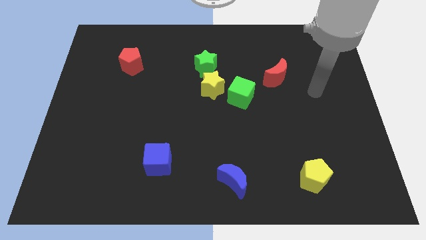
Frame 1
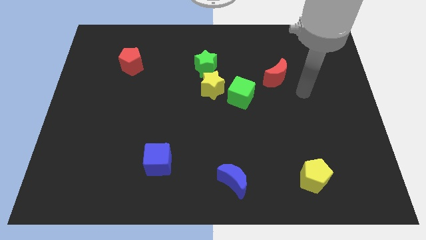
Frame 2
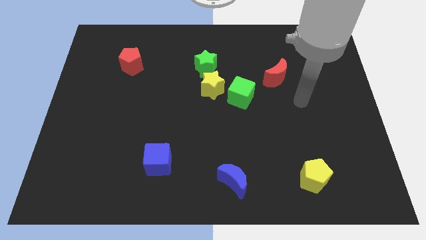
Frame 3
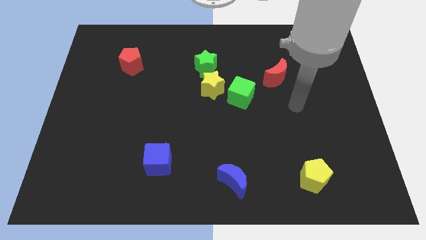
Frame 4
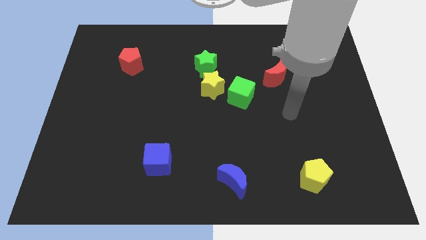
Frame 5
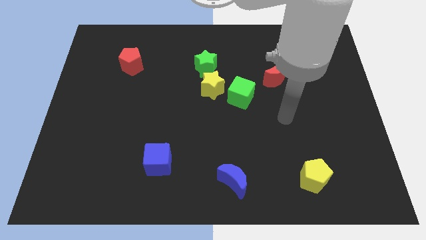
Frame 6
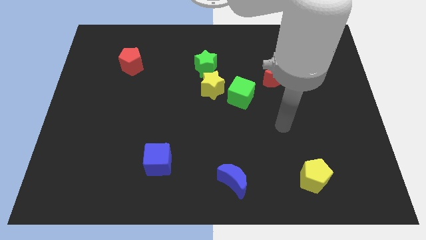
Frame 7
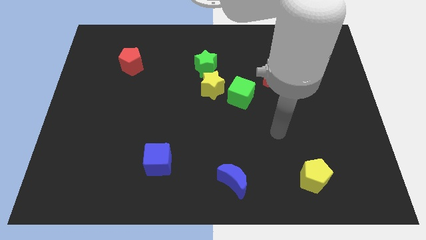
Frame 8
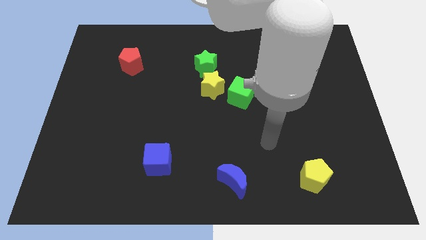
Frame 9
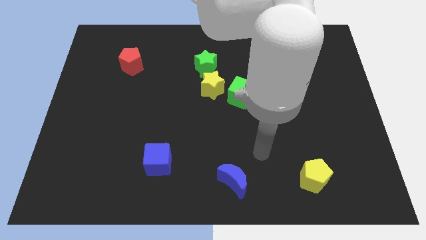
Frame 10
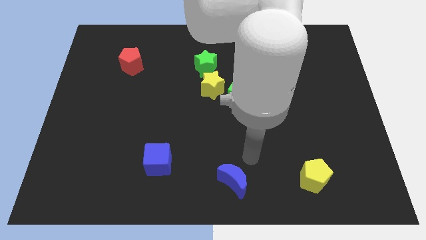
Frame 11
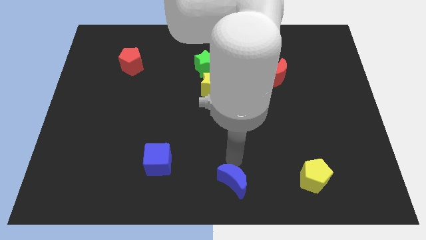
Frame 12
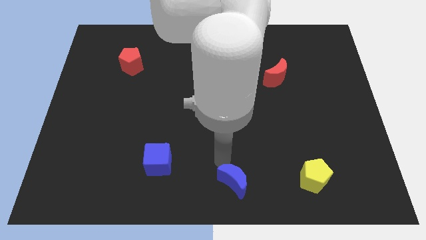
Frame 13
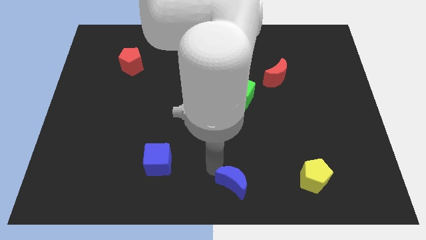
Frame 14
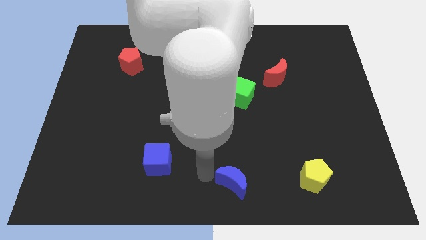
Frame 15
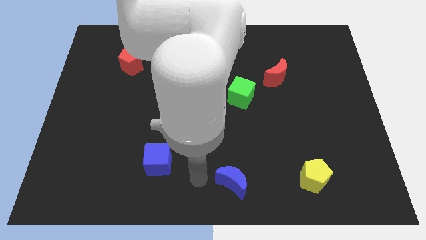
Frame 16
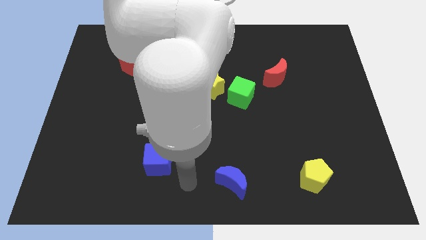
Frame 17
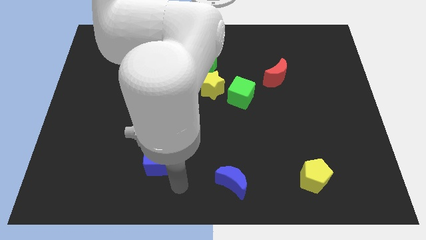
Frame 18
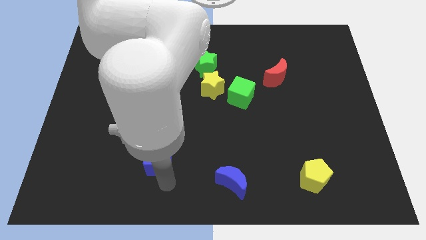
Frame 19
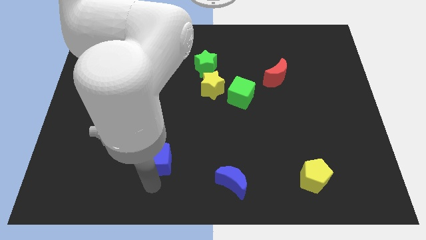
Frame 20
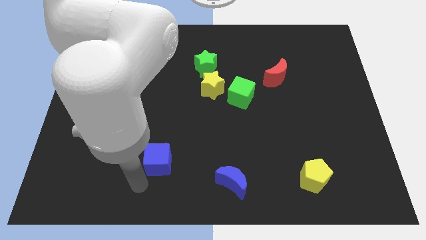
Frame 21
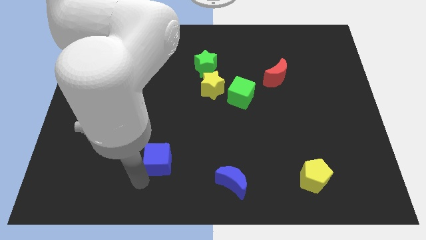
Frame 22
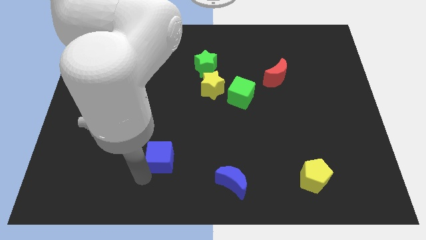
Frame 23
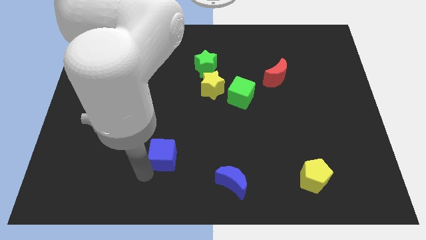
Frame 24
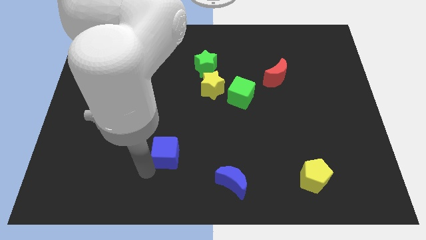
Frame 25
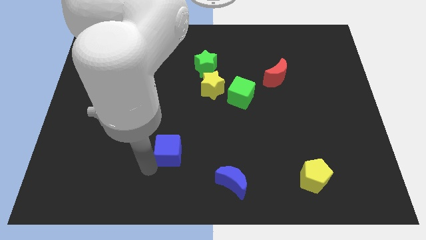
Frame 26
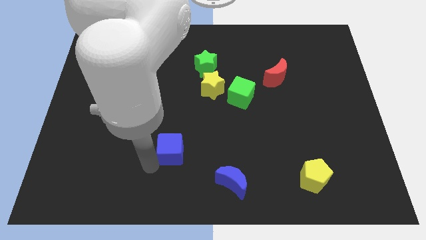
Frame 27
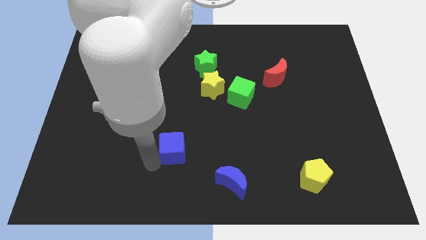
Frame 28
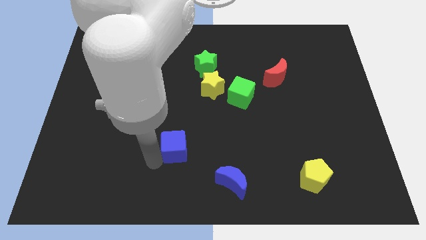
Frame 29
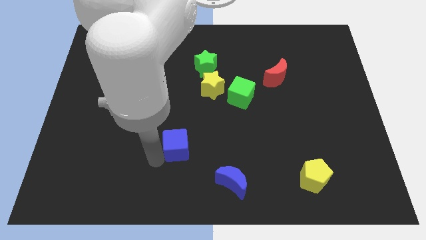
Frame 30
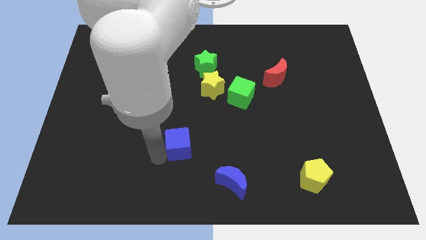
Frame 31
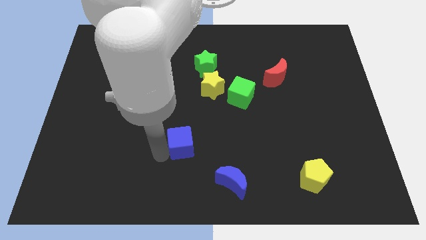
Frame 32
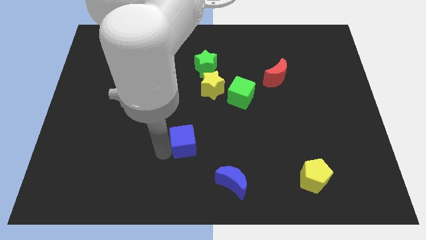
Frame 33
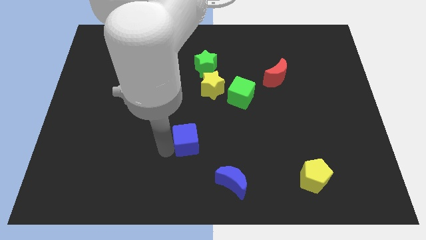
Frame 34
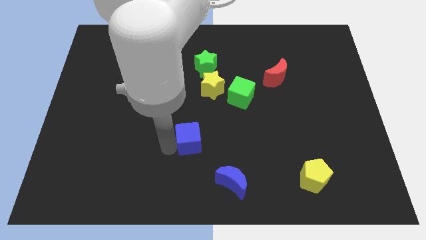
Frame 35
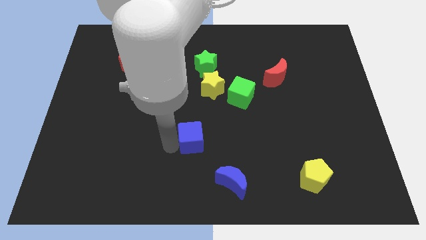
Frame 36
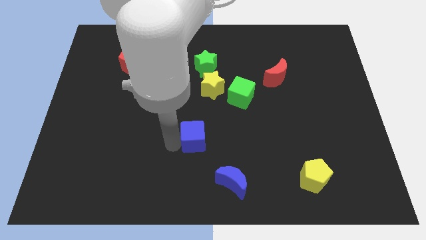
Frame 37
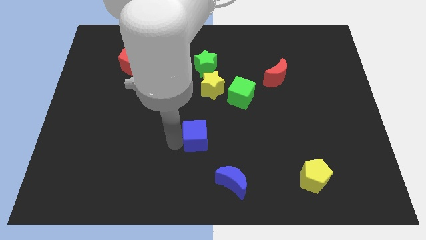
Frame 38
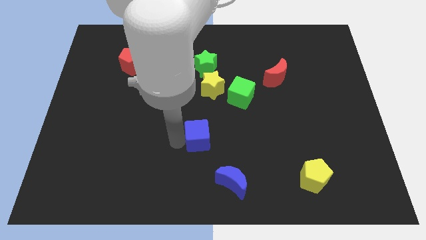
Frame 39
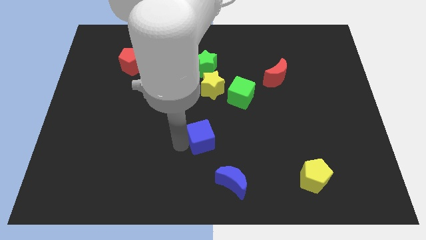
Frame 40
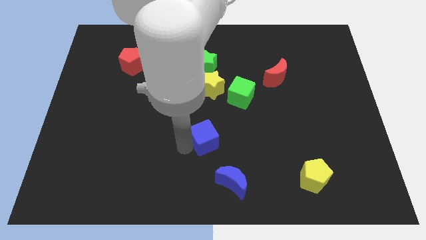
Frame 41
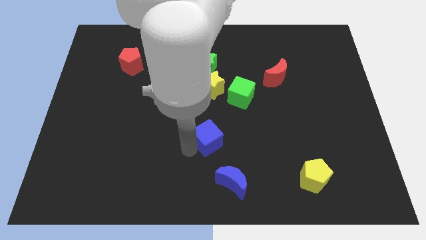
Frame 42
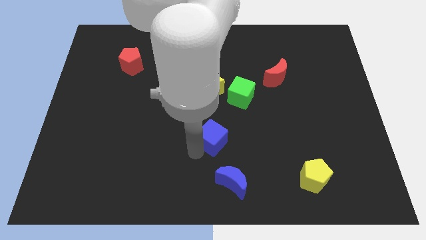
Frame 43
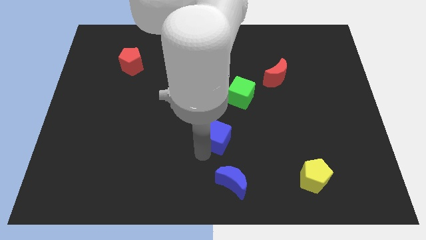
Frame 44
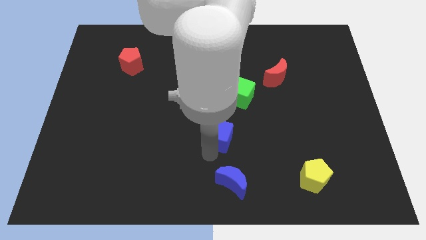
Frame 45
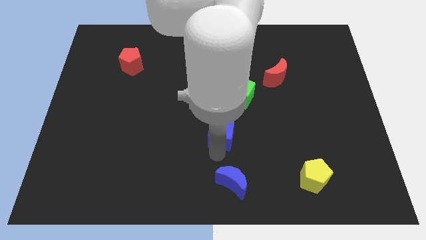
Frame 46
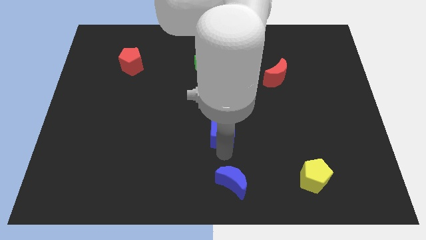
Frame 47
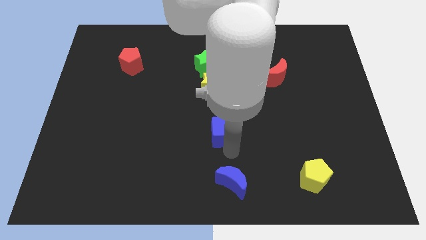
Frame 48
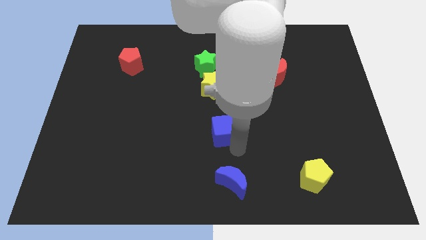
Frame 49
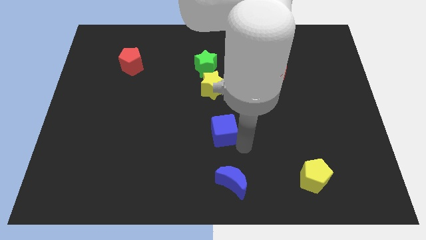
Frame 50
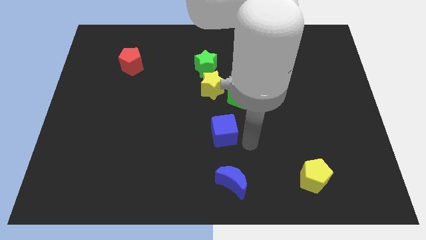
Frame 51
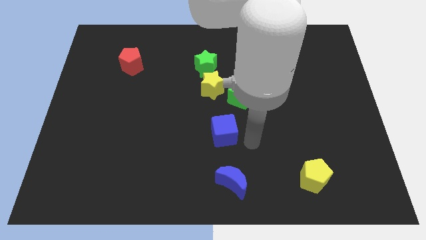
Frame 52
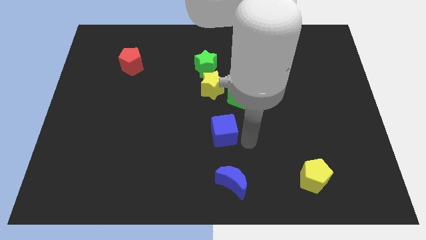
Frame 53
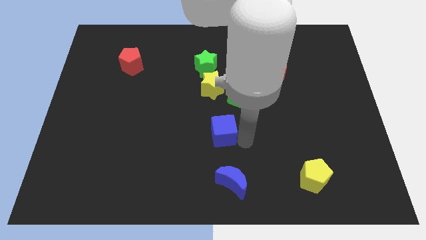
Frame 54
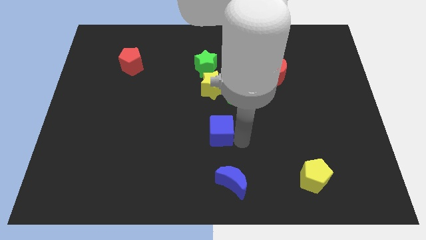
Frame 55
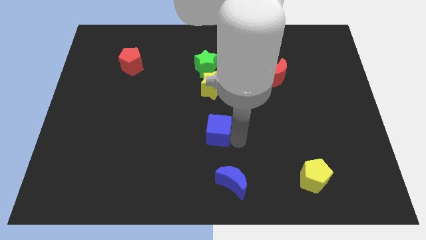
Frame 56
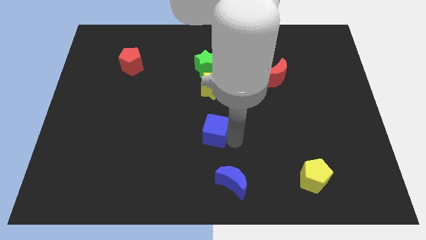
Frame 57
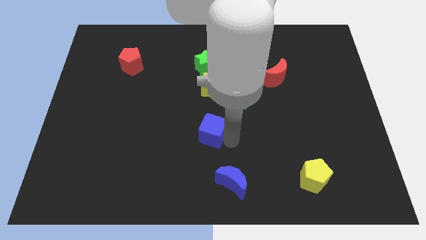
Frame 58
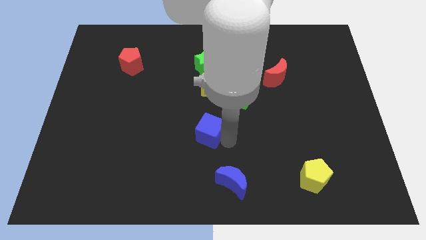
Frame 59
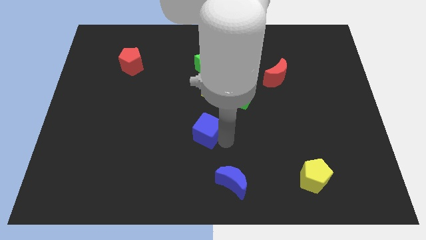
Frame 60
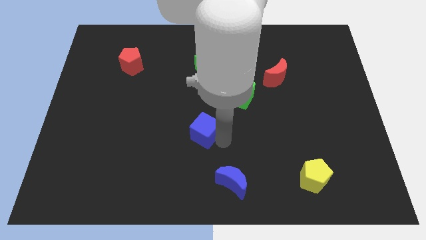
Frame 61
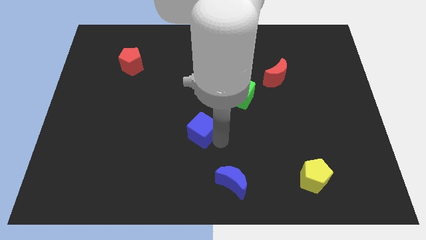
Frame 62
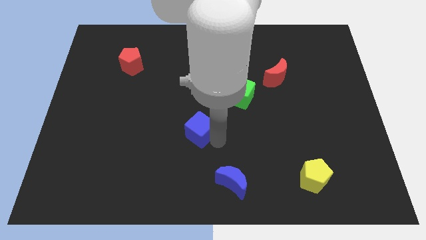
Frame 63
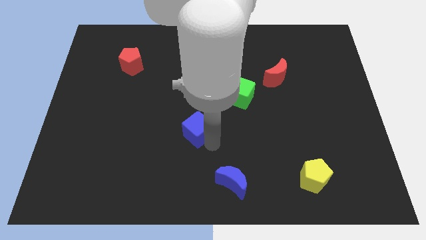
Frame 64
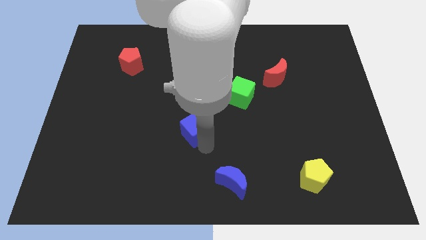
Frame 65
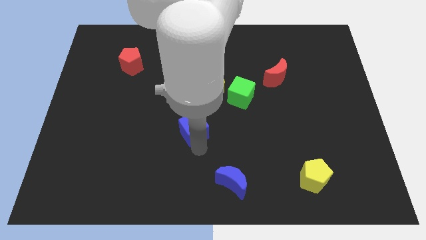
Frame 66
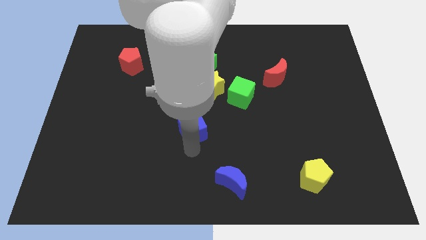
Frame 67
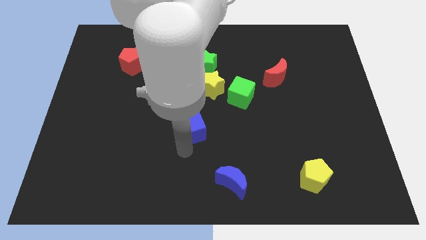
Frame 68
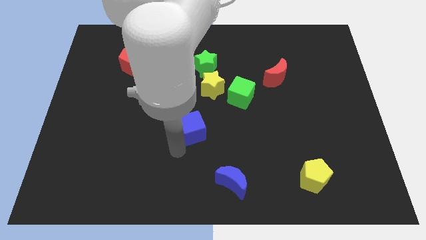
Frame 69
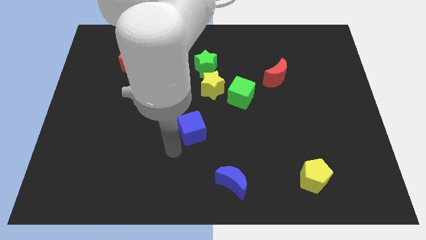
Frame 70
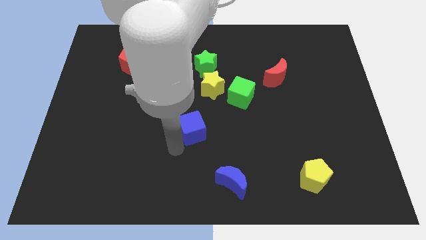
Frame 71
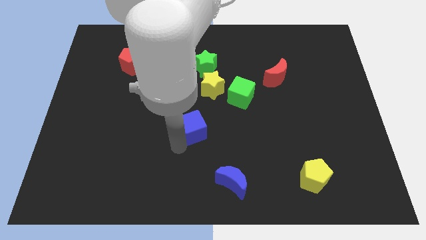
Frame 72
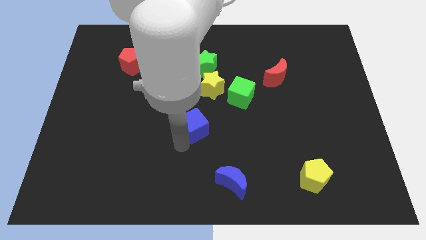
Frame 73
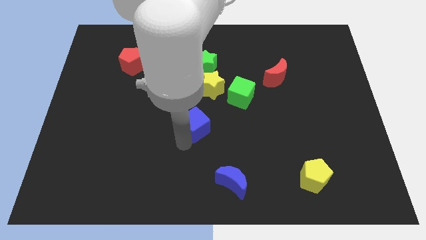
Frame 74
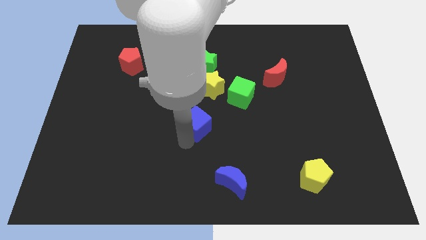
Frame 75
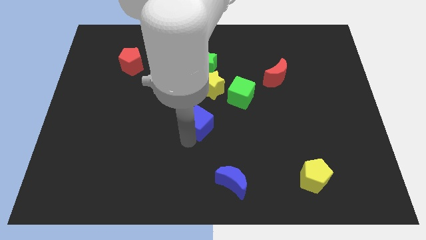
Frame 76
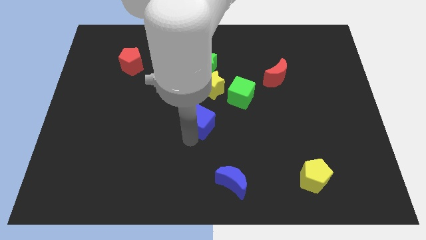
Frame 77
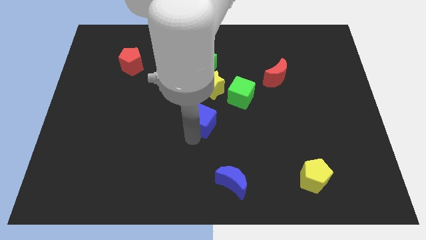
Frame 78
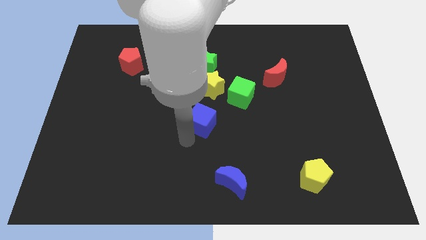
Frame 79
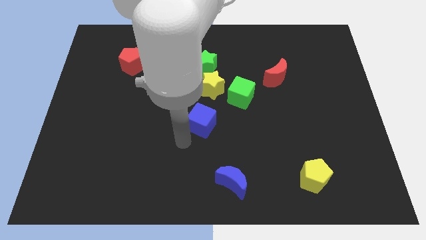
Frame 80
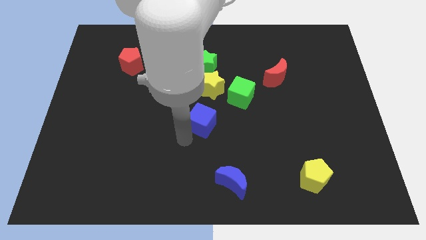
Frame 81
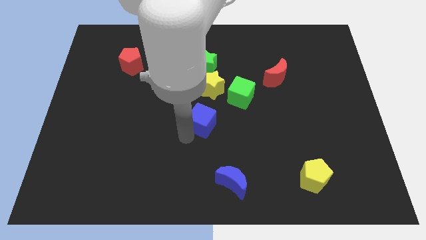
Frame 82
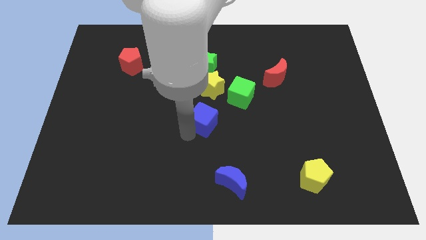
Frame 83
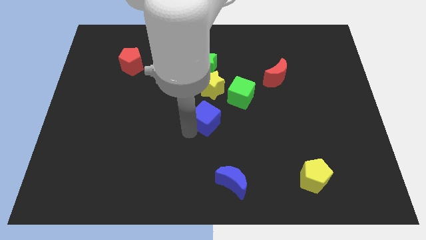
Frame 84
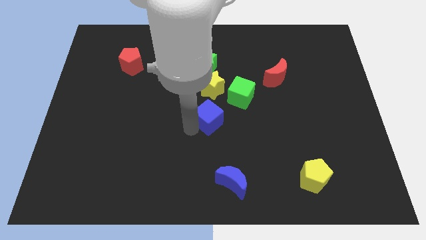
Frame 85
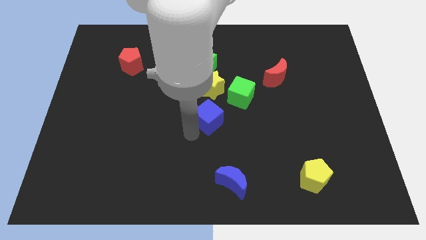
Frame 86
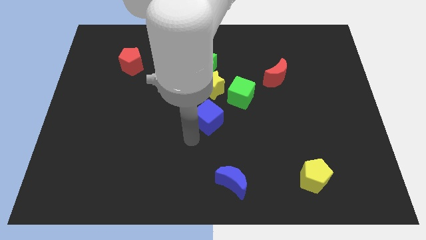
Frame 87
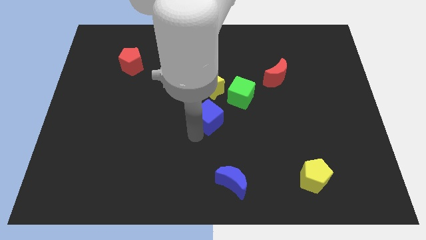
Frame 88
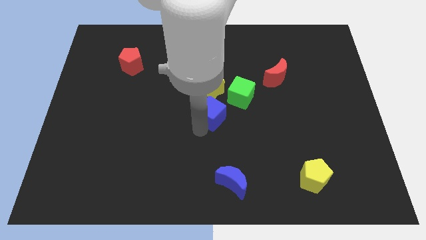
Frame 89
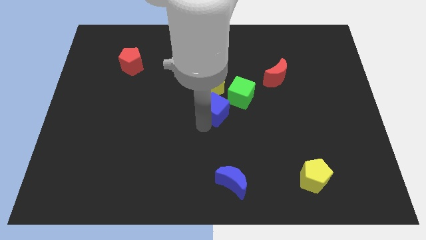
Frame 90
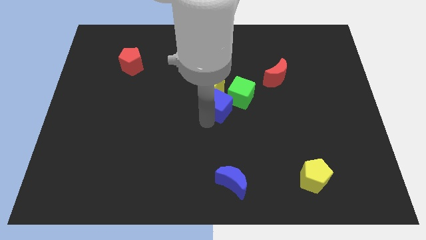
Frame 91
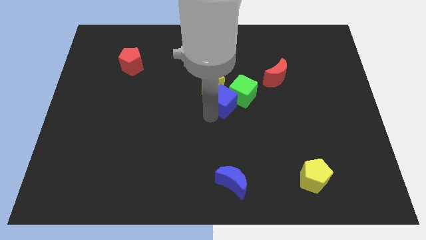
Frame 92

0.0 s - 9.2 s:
put the blue cube next to the green cube
